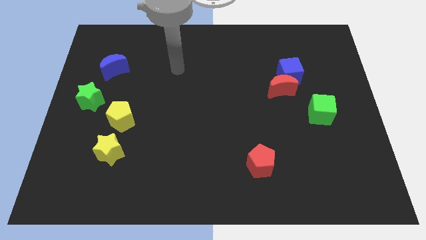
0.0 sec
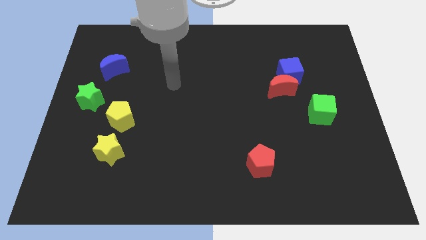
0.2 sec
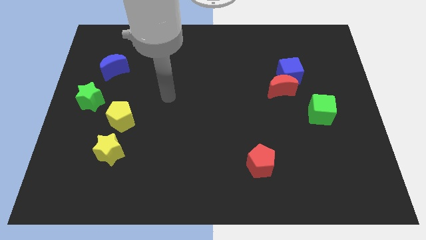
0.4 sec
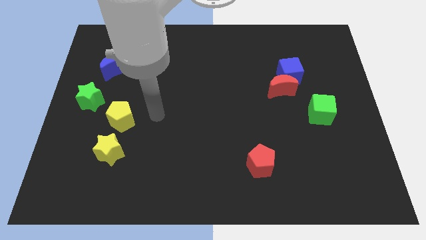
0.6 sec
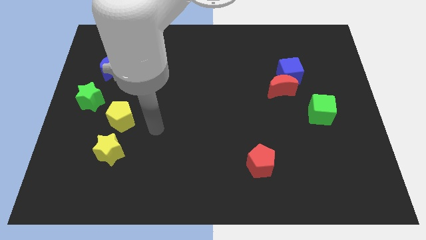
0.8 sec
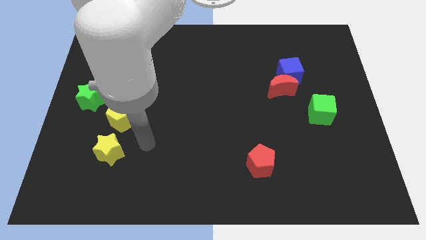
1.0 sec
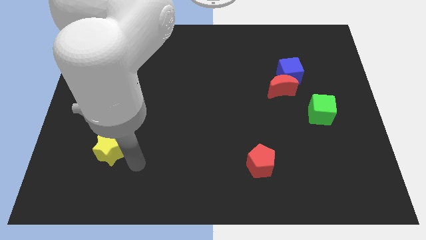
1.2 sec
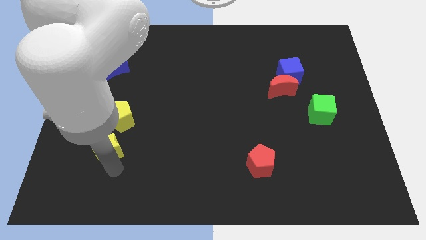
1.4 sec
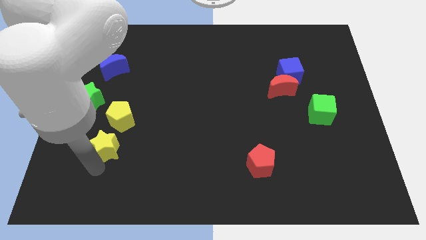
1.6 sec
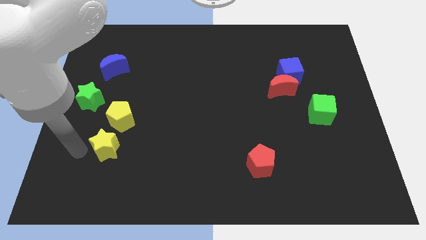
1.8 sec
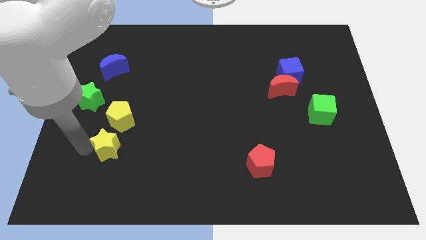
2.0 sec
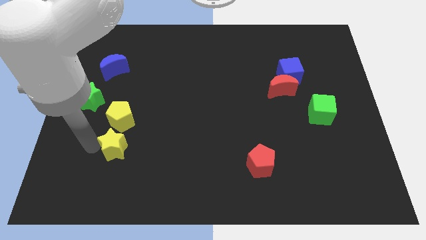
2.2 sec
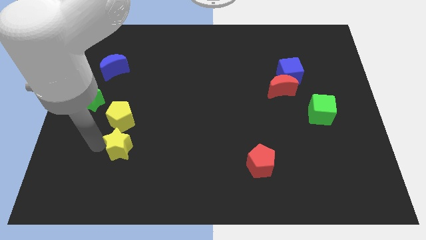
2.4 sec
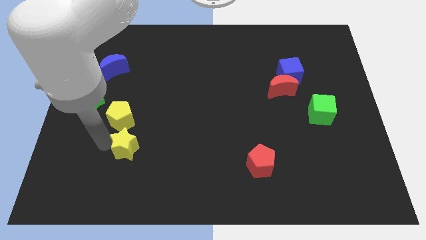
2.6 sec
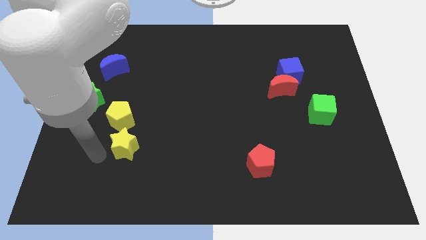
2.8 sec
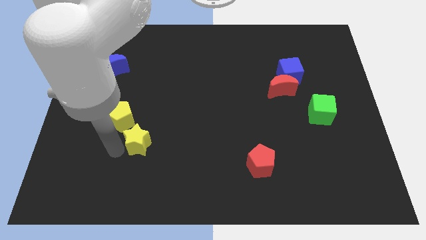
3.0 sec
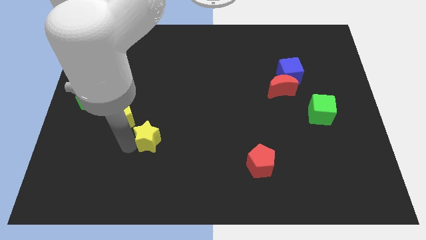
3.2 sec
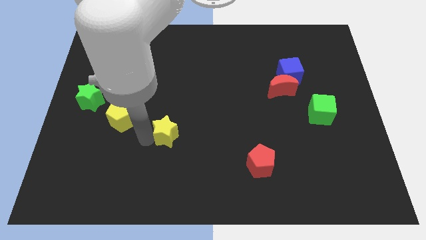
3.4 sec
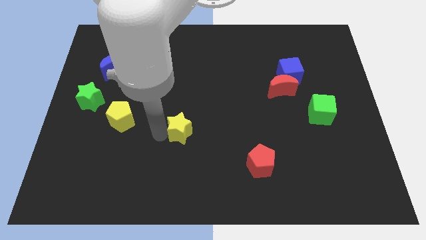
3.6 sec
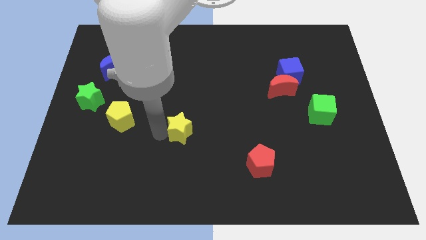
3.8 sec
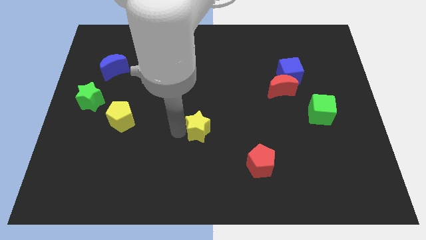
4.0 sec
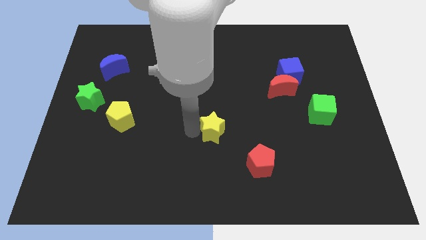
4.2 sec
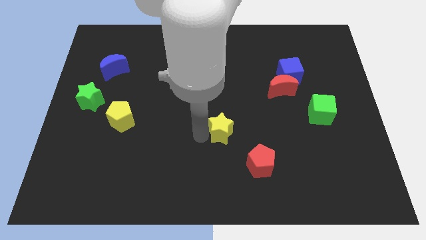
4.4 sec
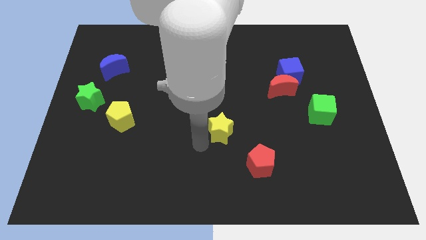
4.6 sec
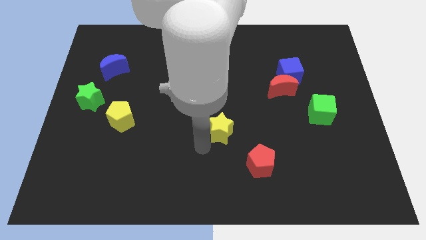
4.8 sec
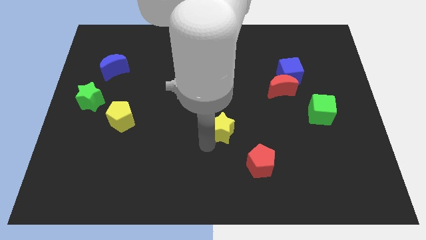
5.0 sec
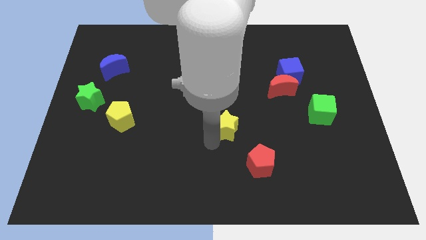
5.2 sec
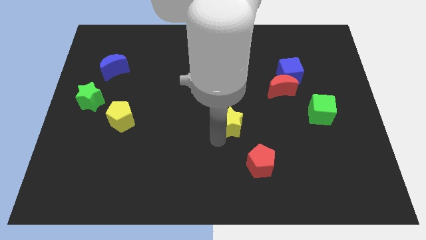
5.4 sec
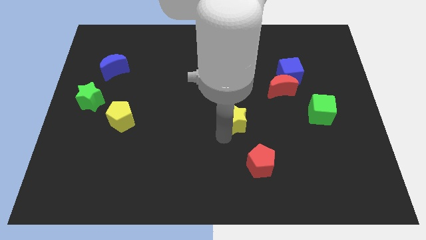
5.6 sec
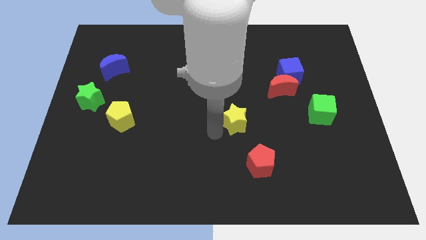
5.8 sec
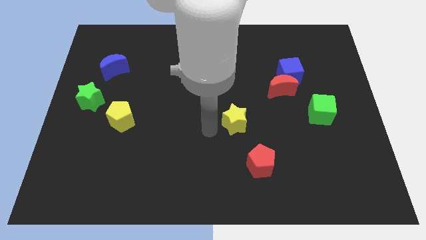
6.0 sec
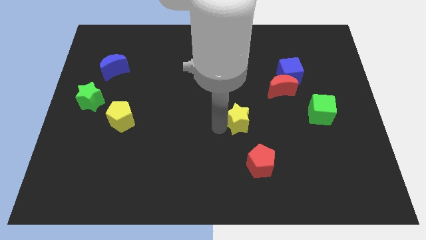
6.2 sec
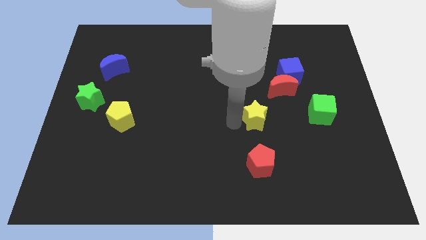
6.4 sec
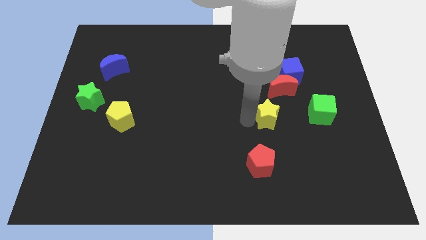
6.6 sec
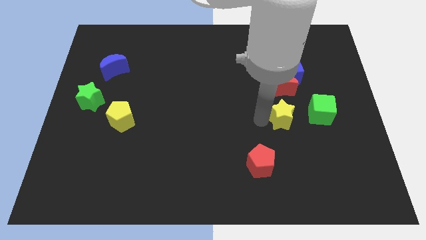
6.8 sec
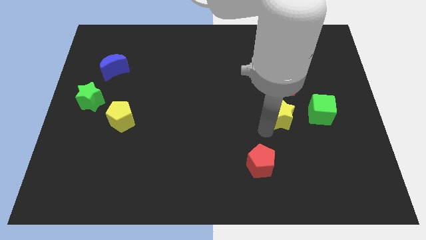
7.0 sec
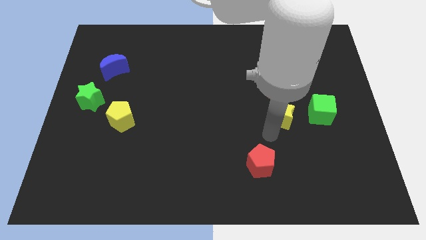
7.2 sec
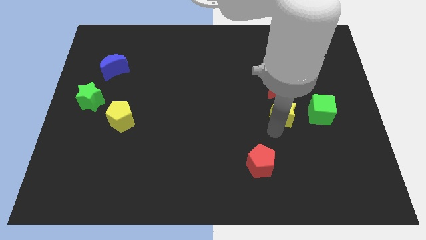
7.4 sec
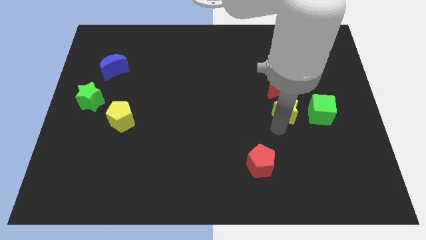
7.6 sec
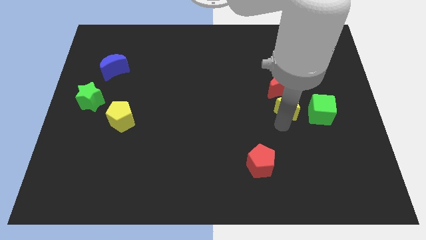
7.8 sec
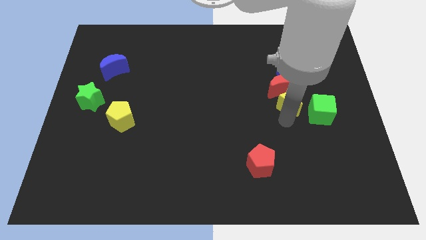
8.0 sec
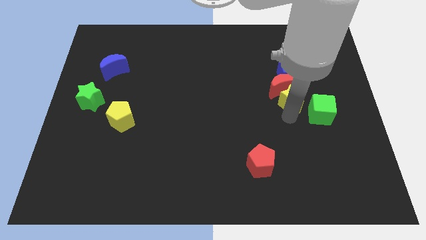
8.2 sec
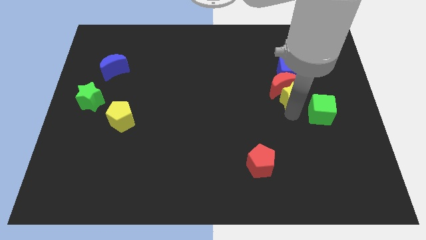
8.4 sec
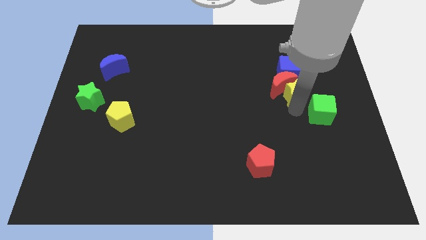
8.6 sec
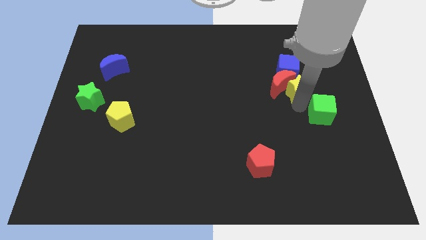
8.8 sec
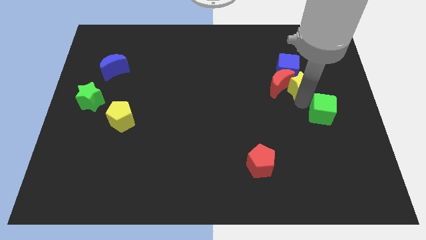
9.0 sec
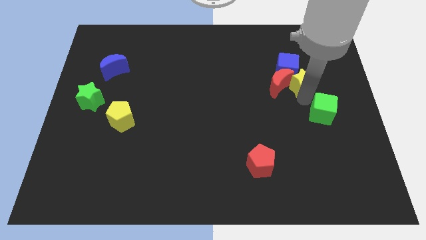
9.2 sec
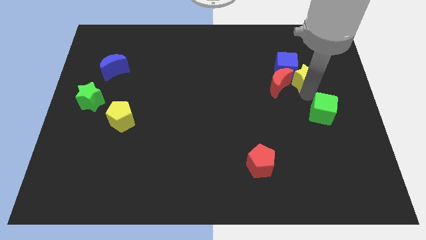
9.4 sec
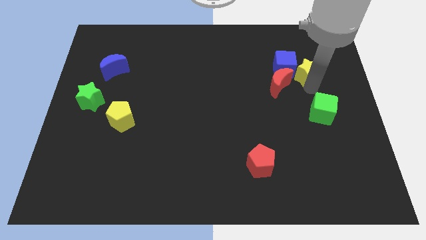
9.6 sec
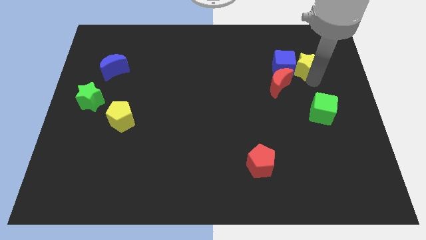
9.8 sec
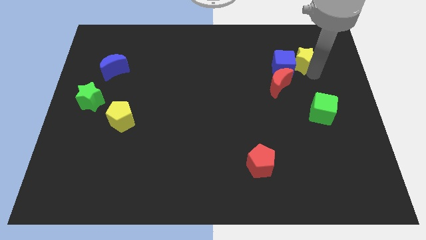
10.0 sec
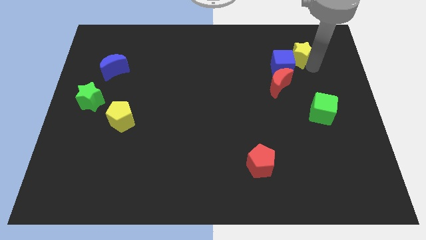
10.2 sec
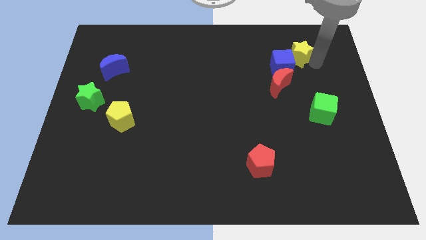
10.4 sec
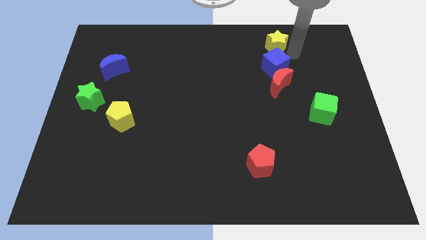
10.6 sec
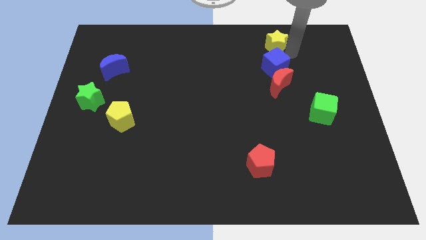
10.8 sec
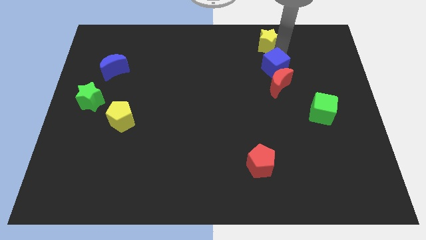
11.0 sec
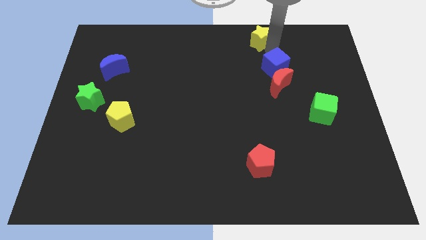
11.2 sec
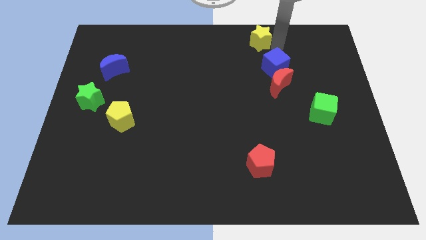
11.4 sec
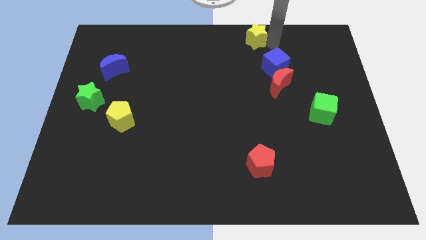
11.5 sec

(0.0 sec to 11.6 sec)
push the yellow star to the top side

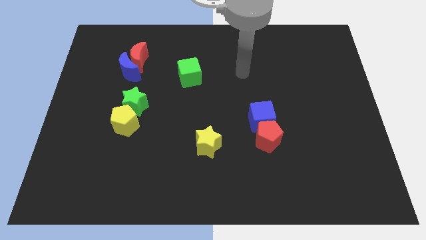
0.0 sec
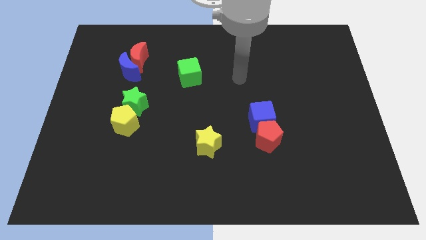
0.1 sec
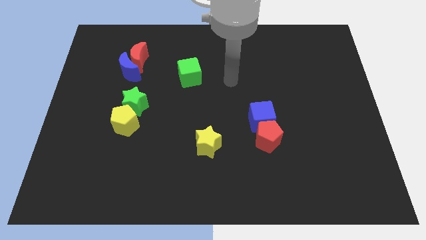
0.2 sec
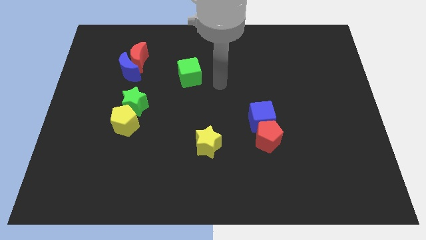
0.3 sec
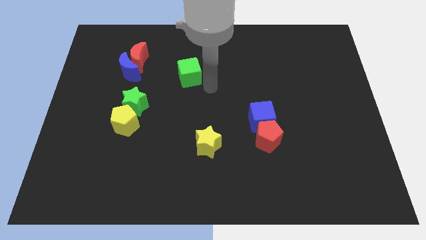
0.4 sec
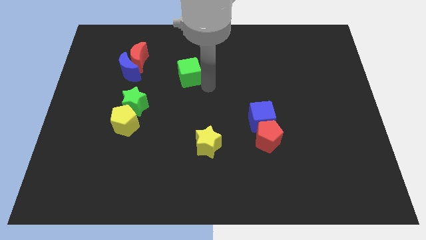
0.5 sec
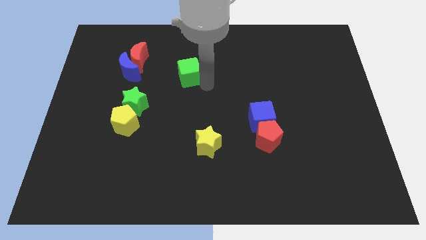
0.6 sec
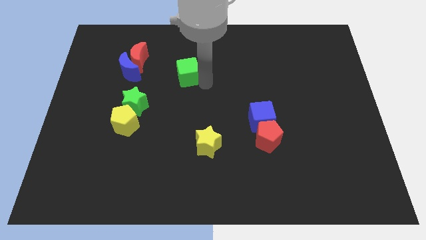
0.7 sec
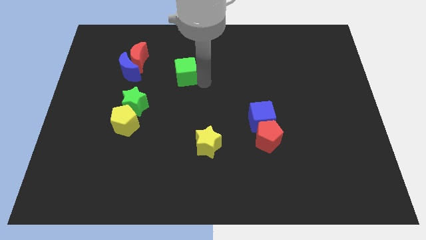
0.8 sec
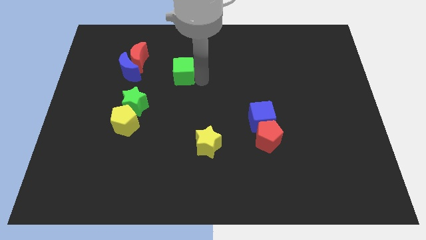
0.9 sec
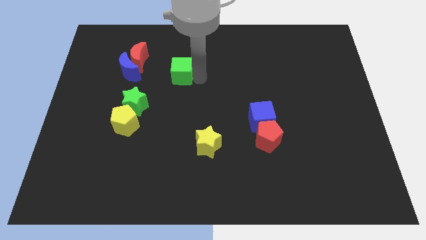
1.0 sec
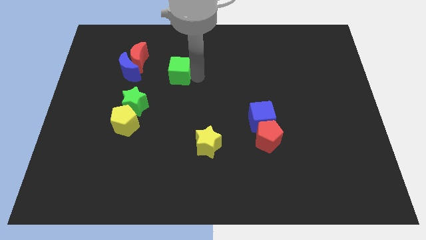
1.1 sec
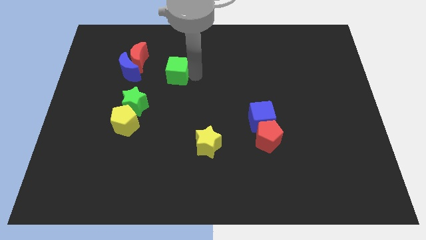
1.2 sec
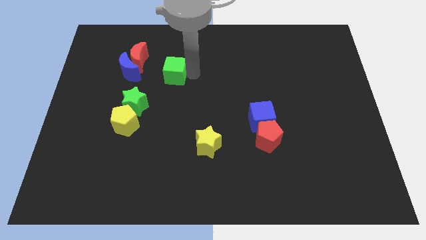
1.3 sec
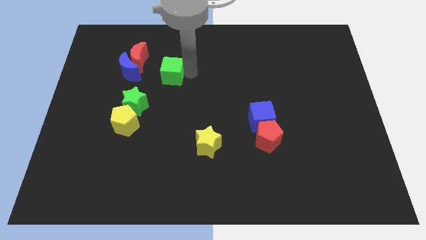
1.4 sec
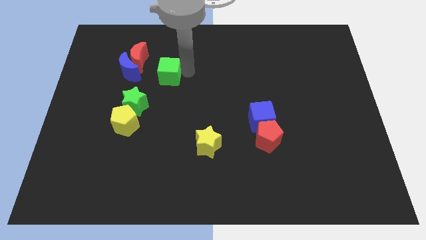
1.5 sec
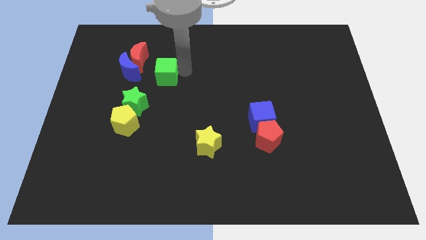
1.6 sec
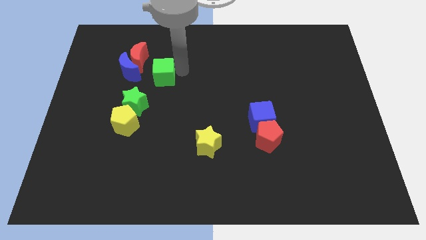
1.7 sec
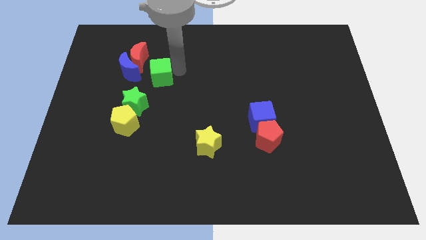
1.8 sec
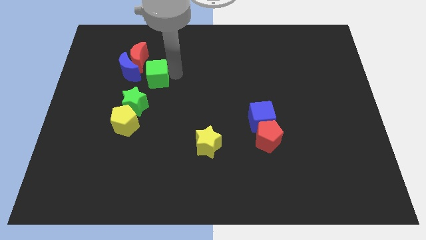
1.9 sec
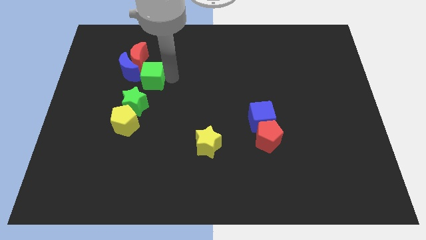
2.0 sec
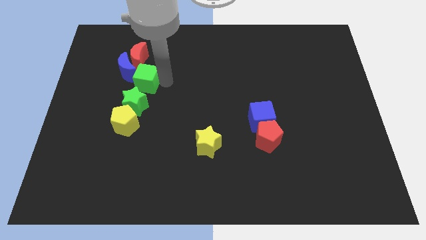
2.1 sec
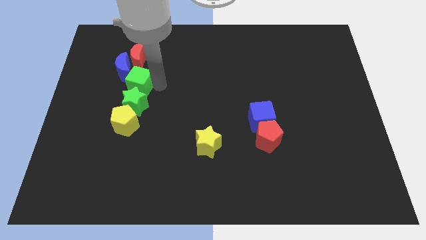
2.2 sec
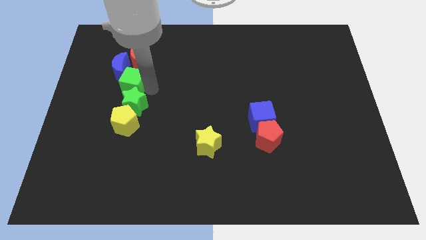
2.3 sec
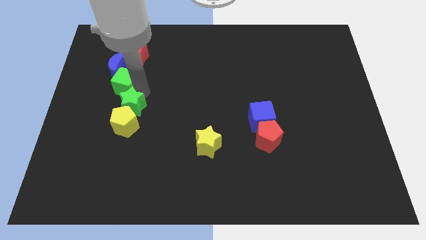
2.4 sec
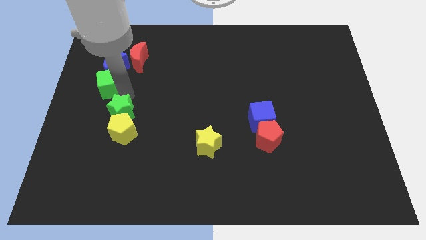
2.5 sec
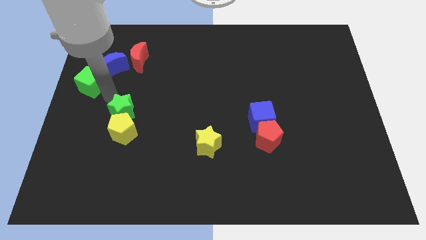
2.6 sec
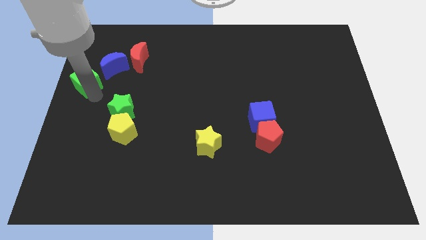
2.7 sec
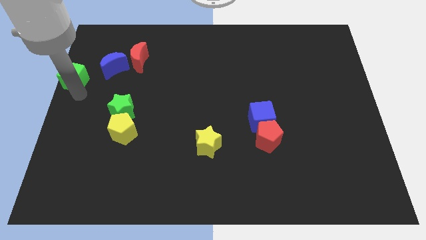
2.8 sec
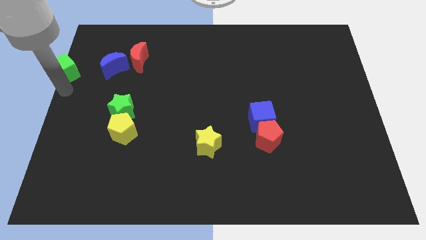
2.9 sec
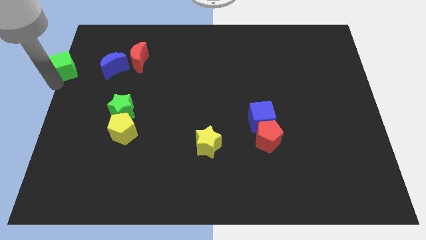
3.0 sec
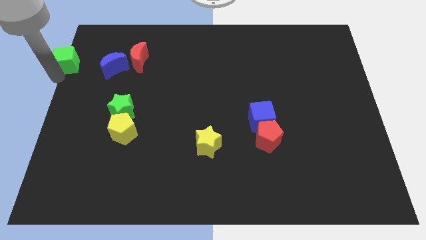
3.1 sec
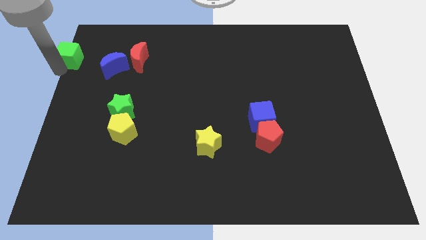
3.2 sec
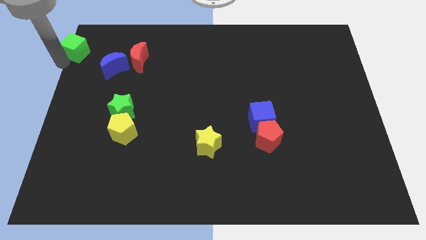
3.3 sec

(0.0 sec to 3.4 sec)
slide the green cube to the upper left corner
